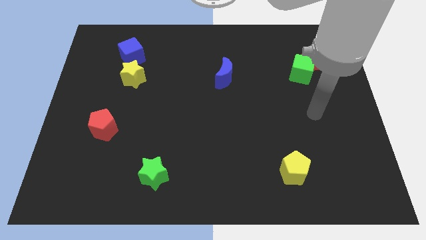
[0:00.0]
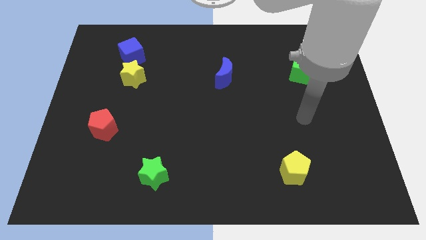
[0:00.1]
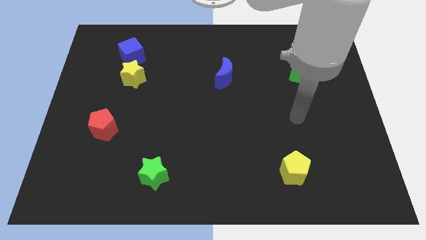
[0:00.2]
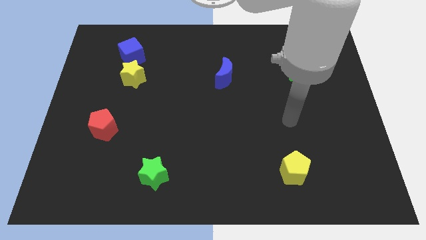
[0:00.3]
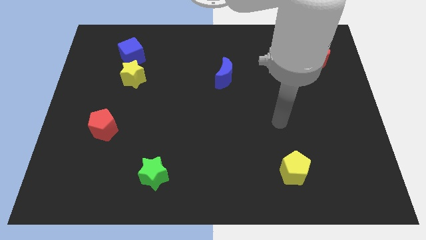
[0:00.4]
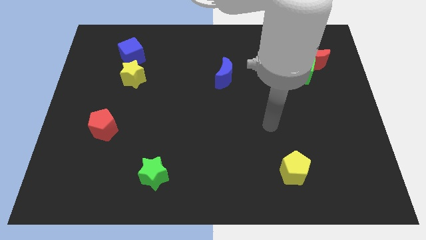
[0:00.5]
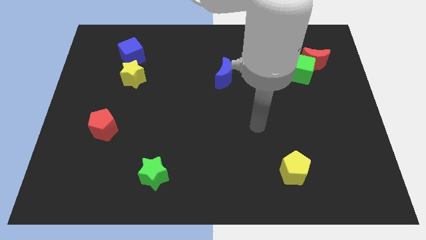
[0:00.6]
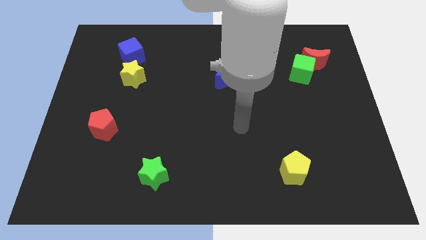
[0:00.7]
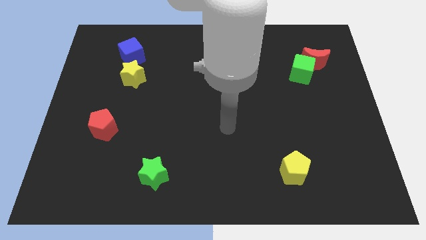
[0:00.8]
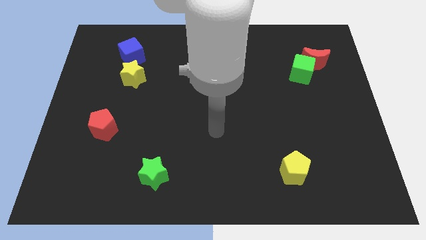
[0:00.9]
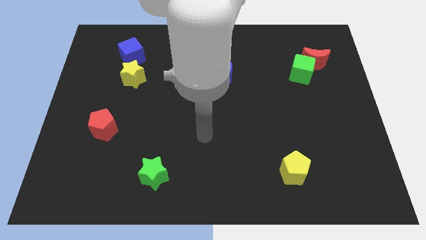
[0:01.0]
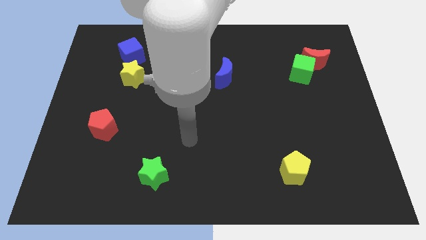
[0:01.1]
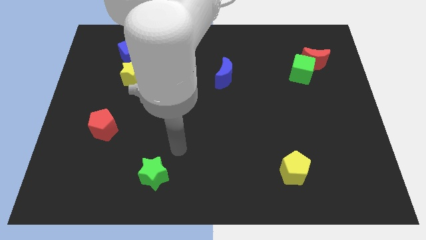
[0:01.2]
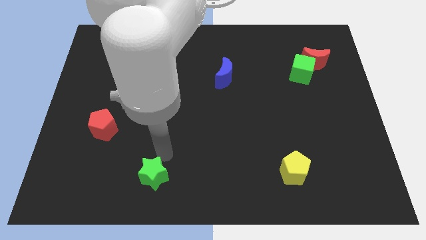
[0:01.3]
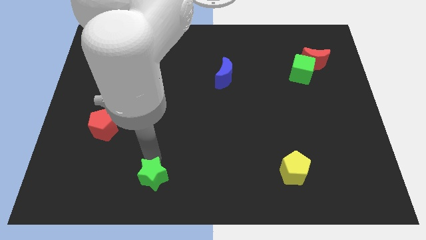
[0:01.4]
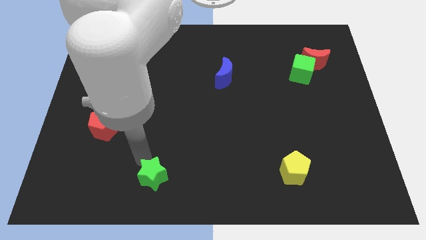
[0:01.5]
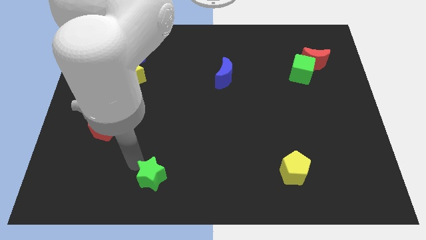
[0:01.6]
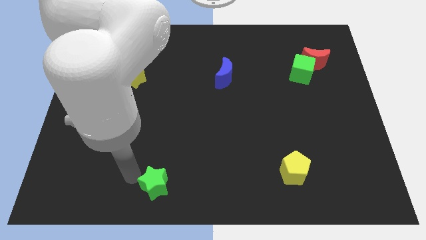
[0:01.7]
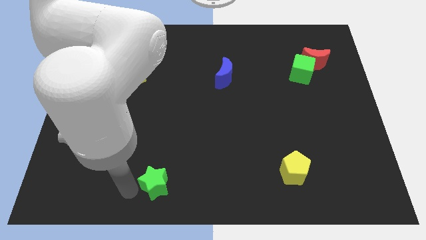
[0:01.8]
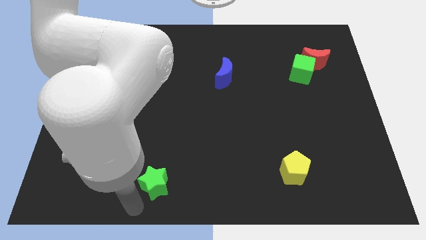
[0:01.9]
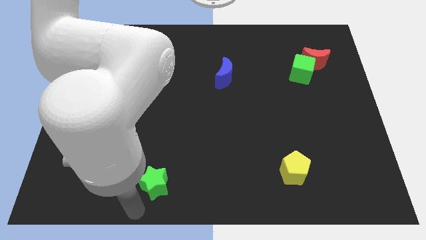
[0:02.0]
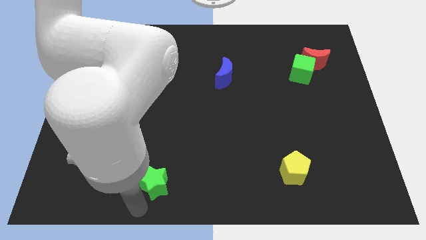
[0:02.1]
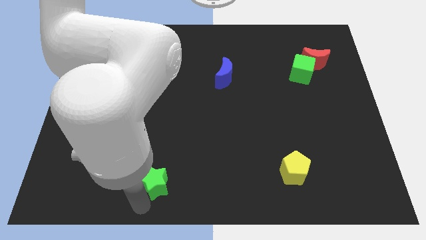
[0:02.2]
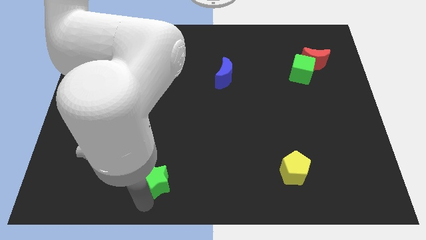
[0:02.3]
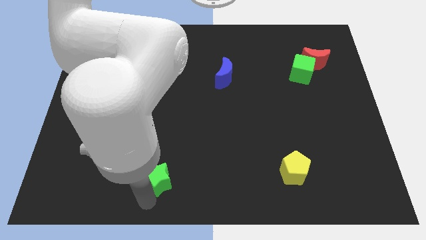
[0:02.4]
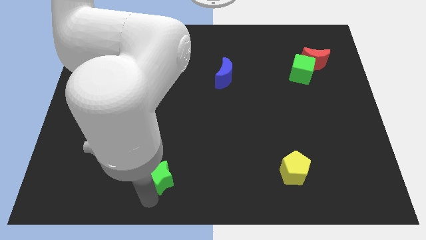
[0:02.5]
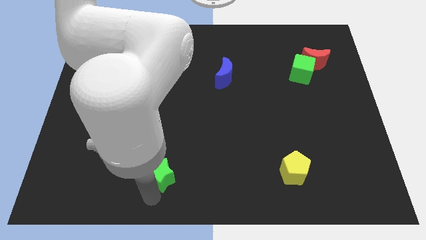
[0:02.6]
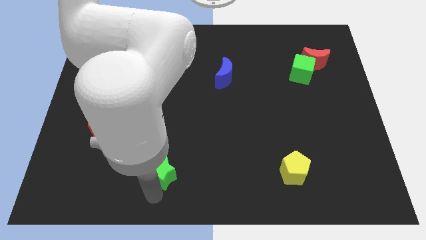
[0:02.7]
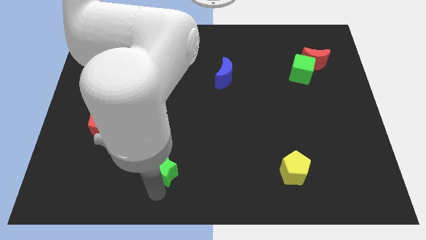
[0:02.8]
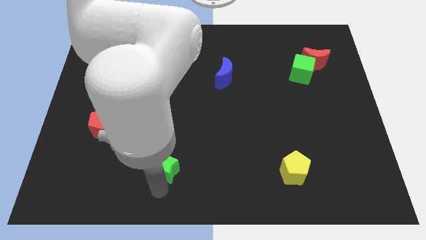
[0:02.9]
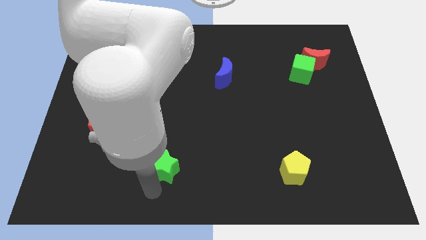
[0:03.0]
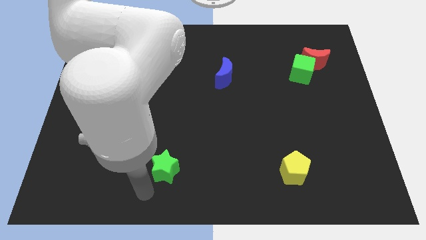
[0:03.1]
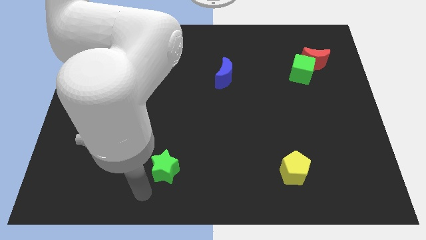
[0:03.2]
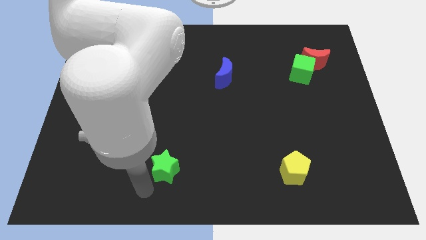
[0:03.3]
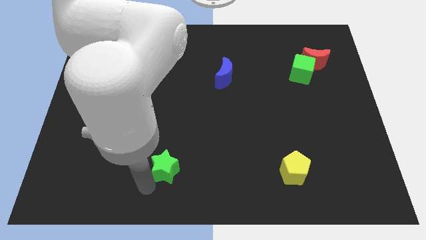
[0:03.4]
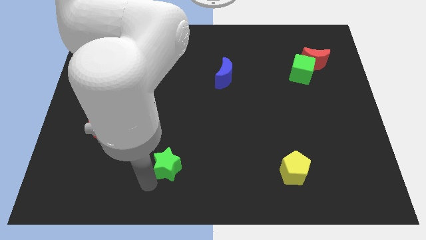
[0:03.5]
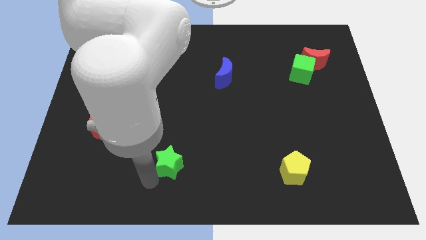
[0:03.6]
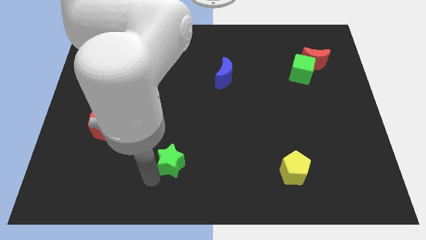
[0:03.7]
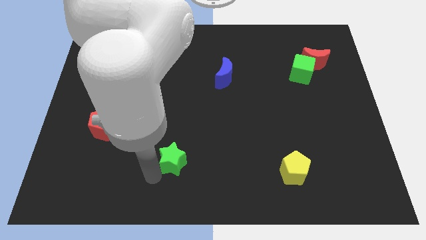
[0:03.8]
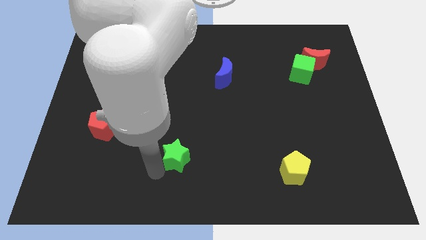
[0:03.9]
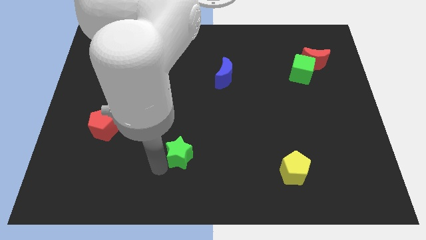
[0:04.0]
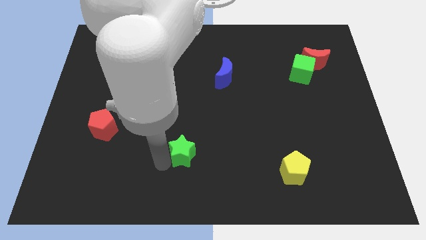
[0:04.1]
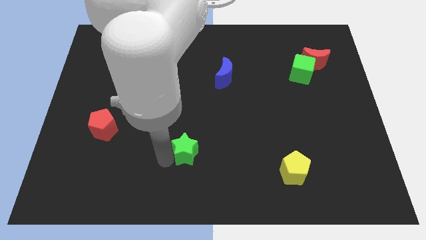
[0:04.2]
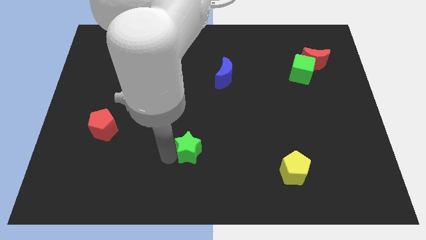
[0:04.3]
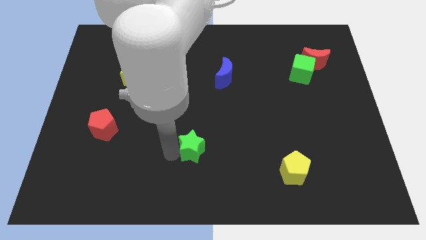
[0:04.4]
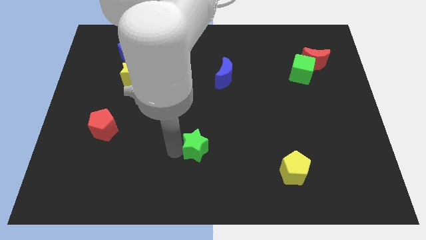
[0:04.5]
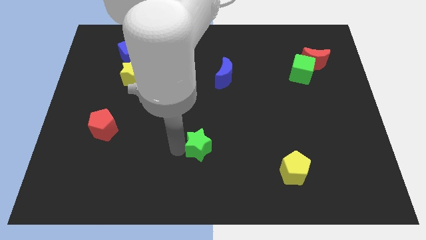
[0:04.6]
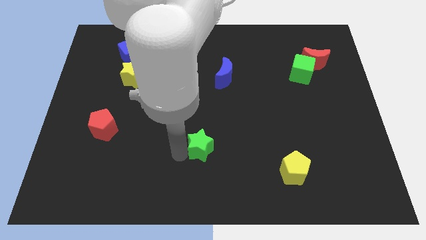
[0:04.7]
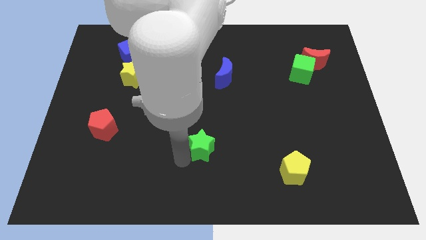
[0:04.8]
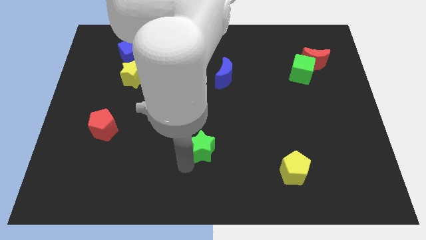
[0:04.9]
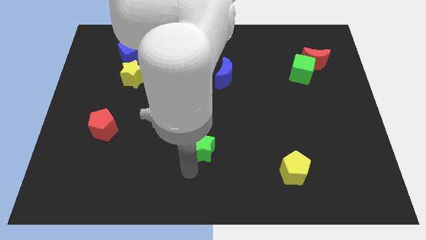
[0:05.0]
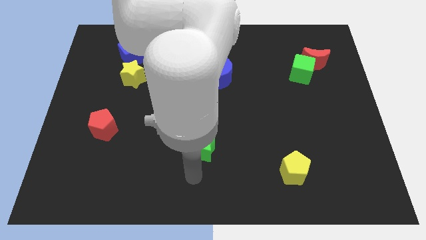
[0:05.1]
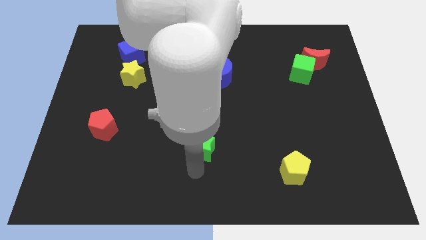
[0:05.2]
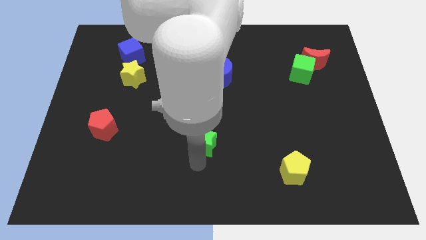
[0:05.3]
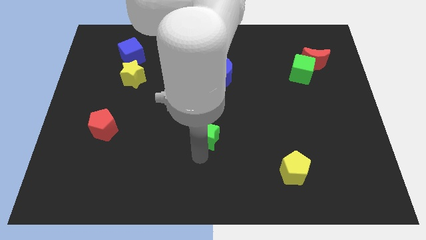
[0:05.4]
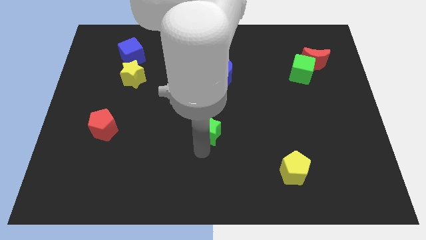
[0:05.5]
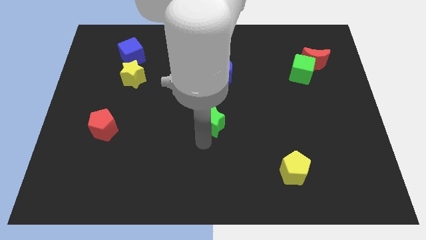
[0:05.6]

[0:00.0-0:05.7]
push the green star to the bottom of the blue moon

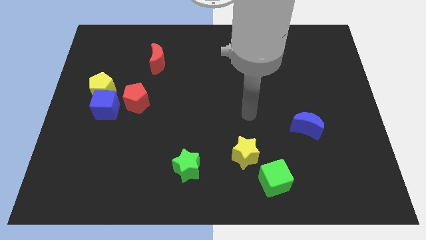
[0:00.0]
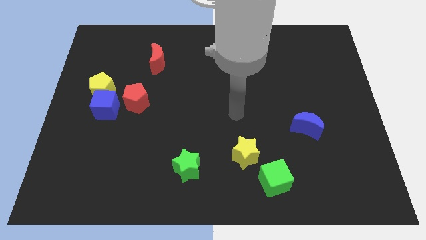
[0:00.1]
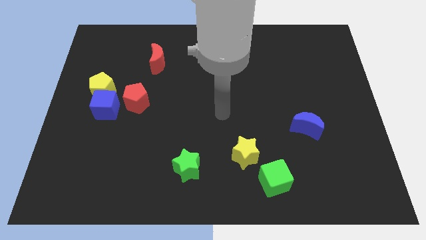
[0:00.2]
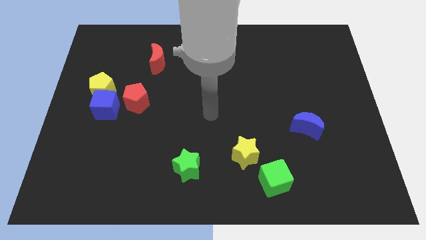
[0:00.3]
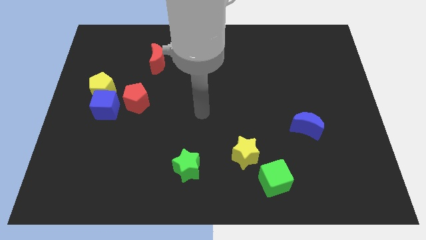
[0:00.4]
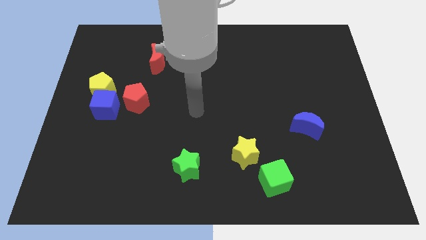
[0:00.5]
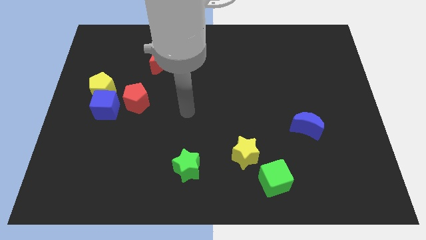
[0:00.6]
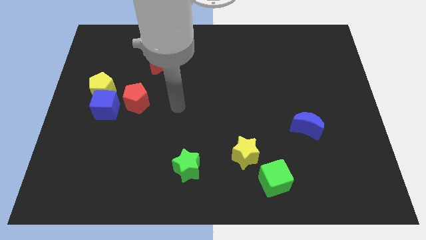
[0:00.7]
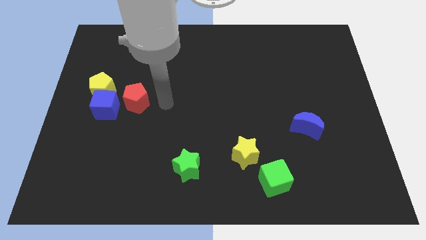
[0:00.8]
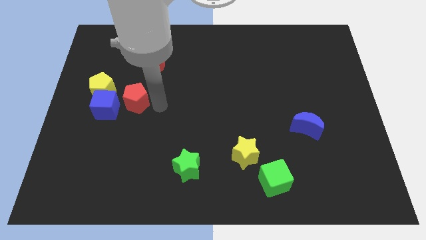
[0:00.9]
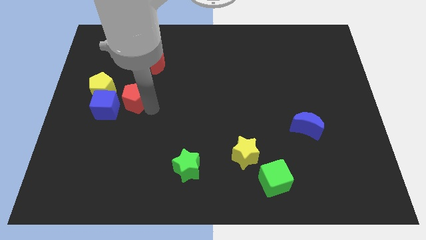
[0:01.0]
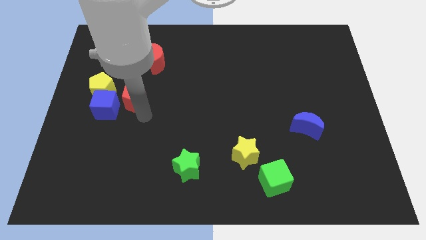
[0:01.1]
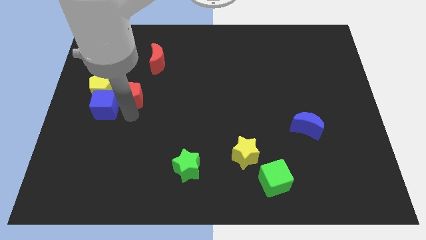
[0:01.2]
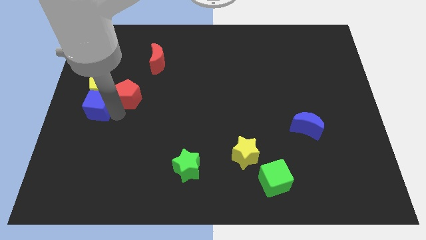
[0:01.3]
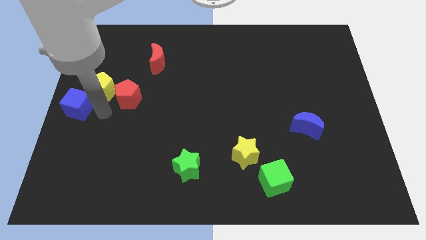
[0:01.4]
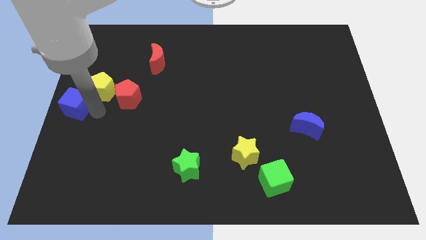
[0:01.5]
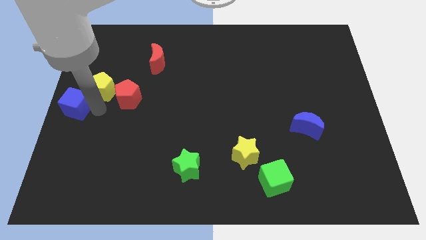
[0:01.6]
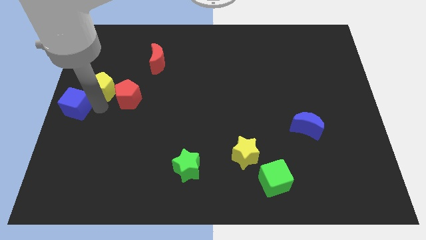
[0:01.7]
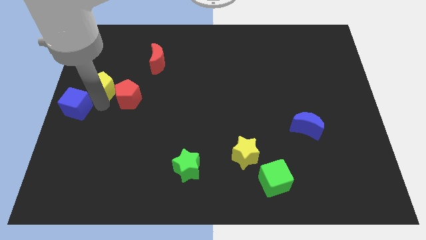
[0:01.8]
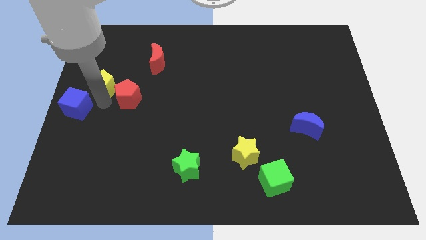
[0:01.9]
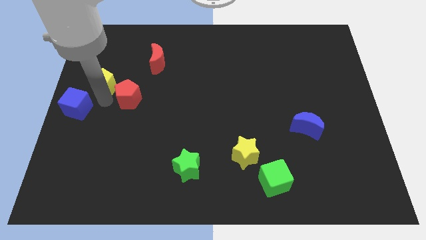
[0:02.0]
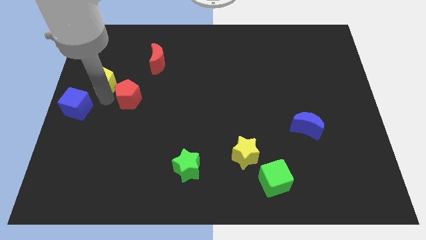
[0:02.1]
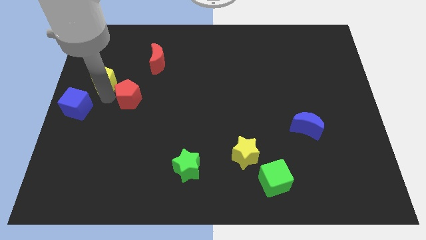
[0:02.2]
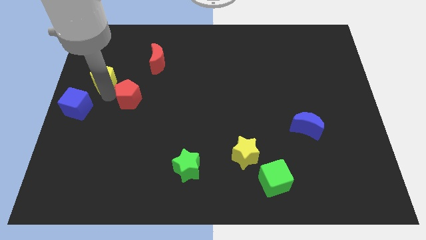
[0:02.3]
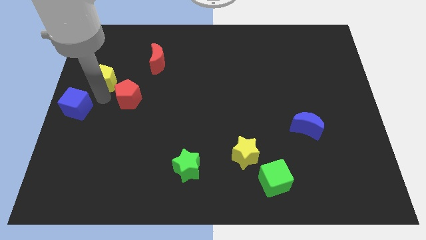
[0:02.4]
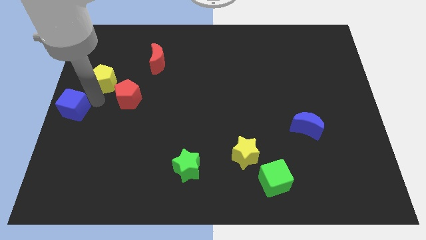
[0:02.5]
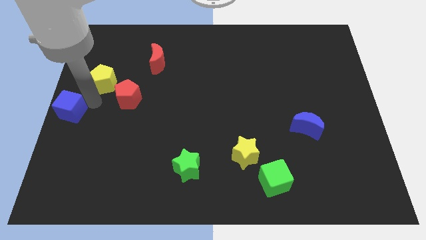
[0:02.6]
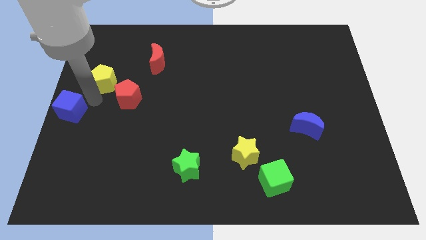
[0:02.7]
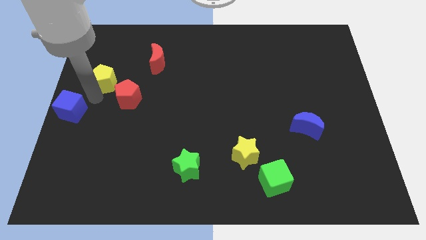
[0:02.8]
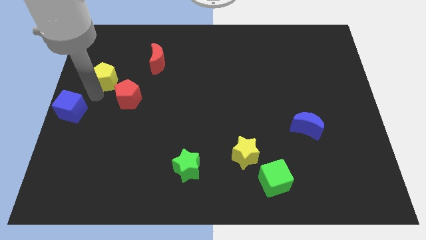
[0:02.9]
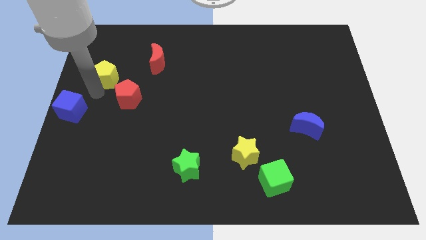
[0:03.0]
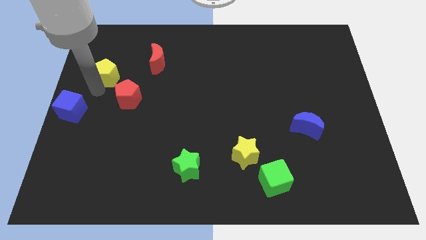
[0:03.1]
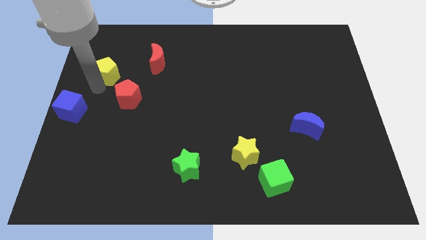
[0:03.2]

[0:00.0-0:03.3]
put the yellow pentagon left of the red moon
